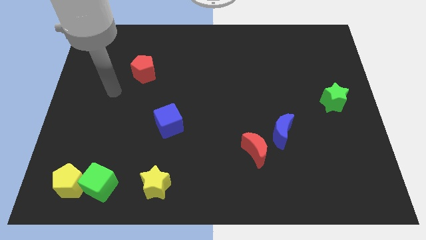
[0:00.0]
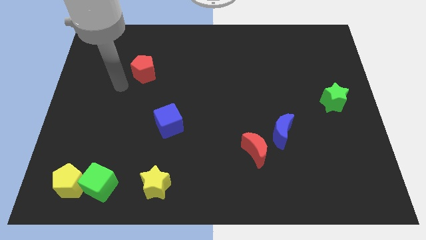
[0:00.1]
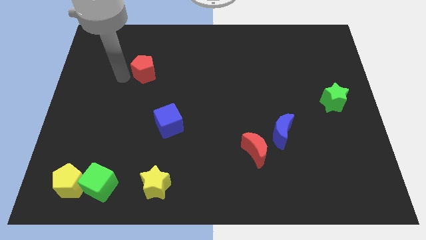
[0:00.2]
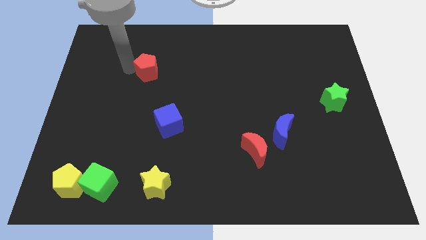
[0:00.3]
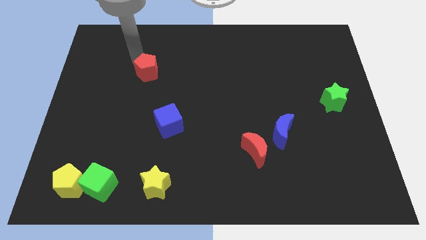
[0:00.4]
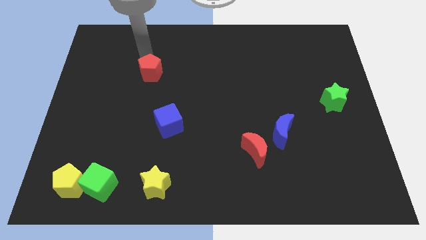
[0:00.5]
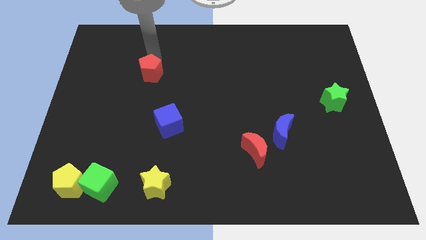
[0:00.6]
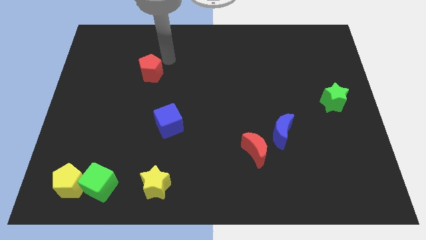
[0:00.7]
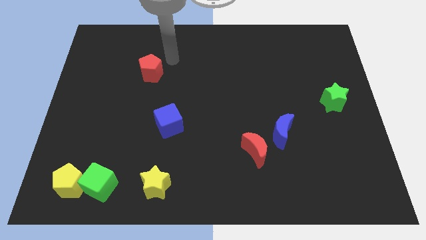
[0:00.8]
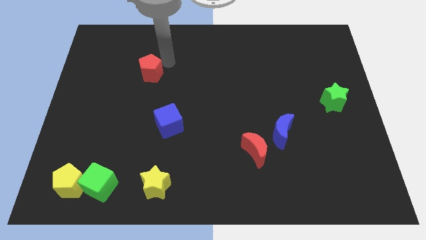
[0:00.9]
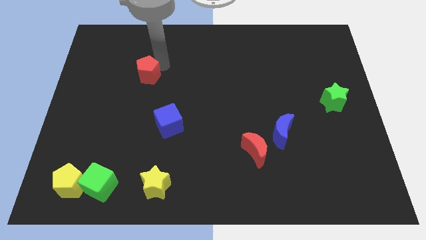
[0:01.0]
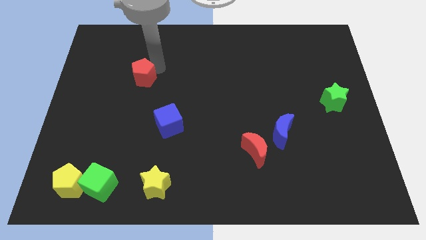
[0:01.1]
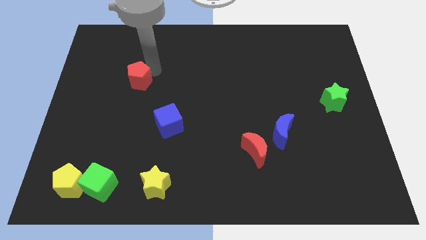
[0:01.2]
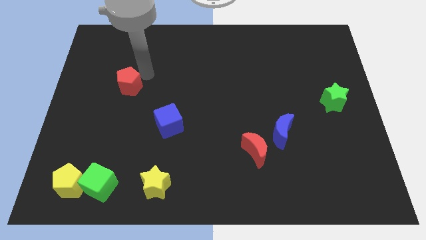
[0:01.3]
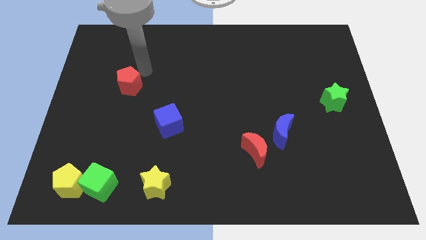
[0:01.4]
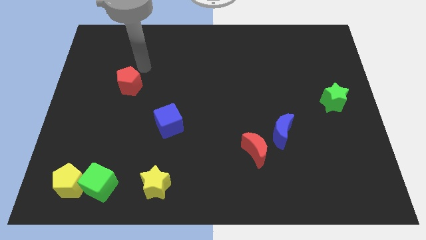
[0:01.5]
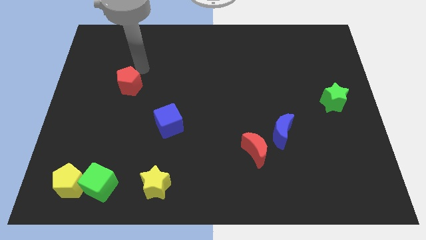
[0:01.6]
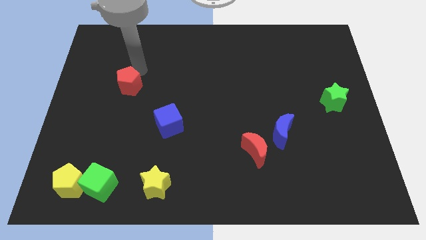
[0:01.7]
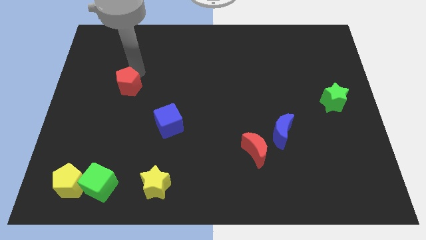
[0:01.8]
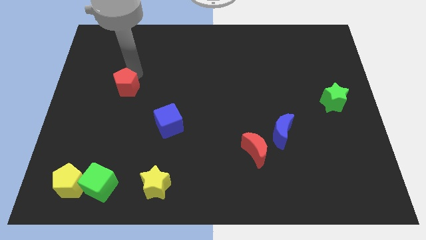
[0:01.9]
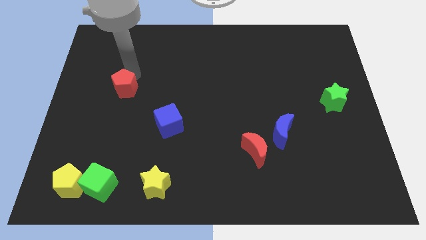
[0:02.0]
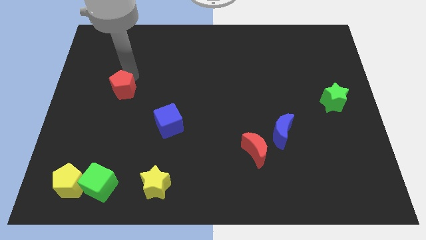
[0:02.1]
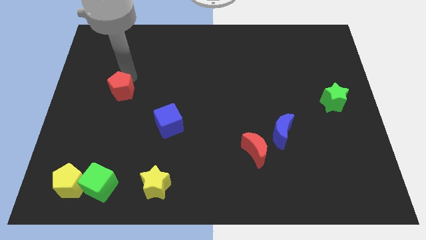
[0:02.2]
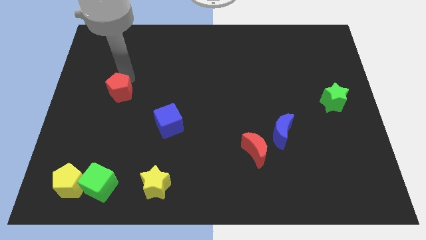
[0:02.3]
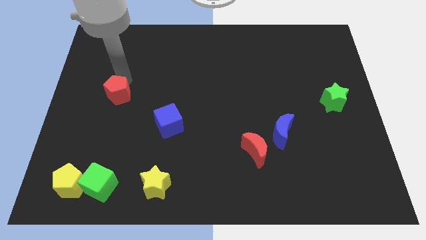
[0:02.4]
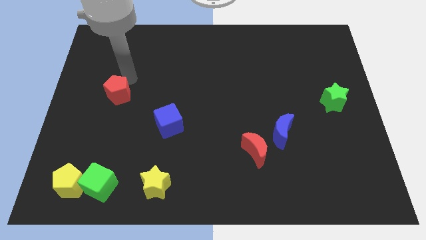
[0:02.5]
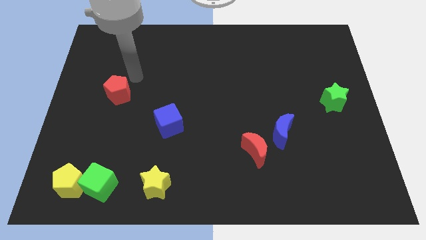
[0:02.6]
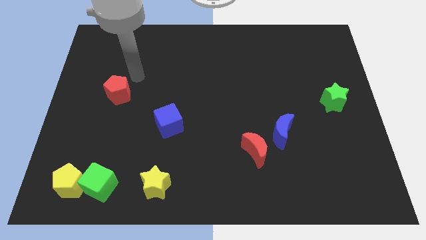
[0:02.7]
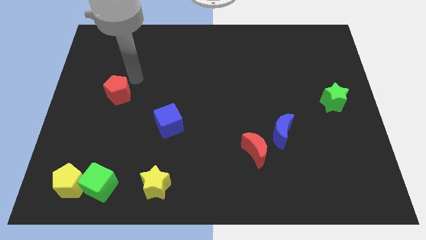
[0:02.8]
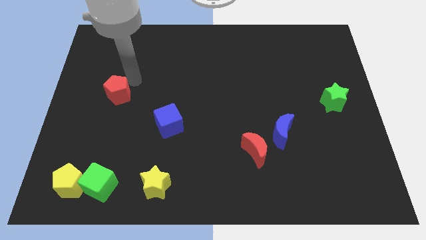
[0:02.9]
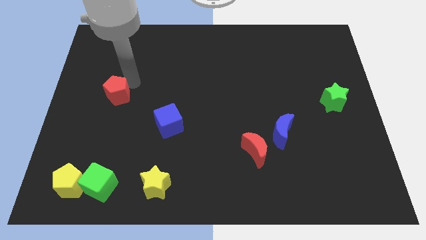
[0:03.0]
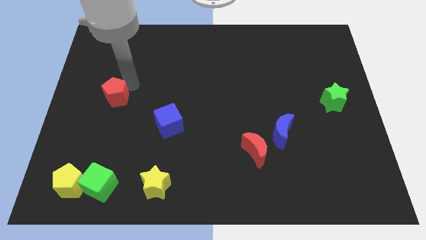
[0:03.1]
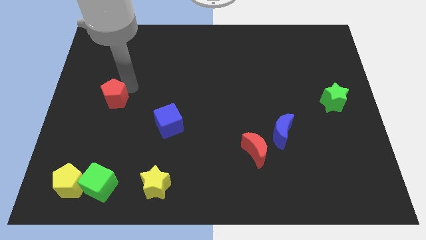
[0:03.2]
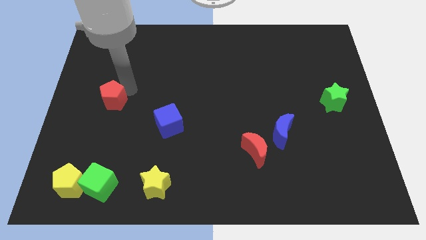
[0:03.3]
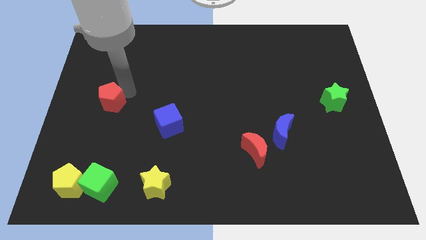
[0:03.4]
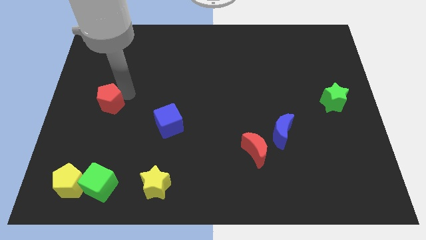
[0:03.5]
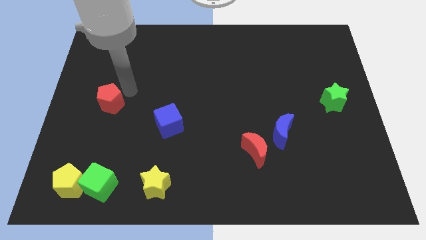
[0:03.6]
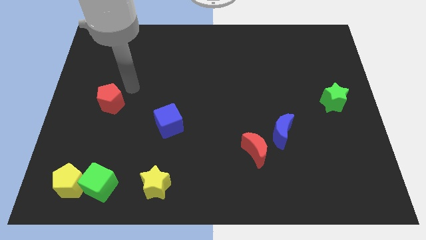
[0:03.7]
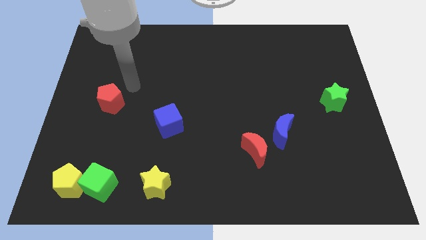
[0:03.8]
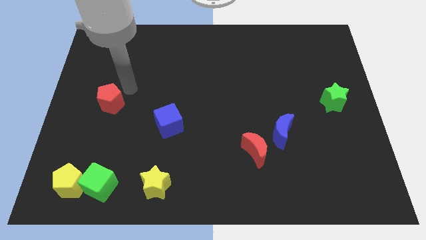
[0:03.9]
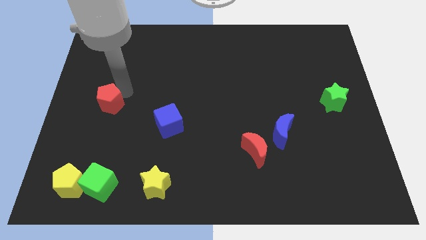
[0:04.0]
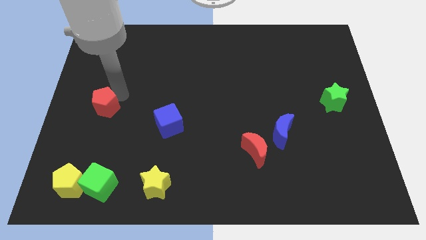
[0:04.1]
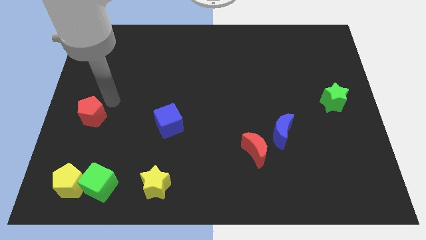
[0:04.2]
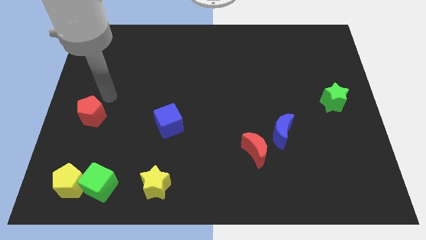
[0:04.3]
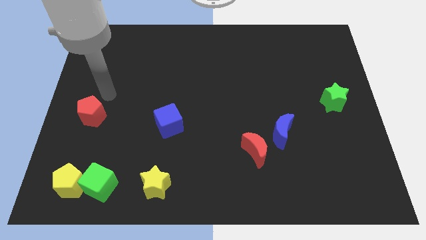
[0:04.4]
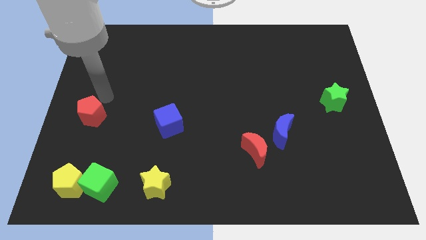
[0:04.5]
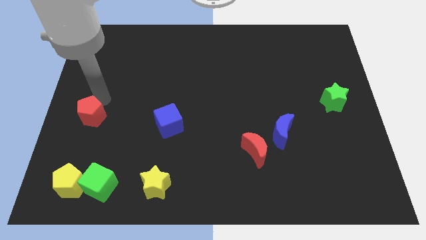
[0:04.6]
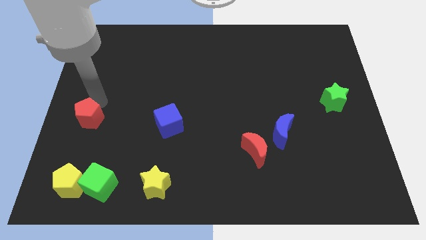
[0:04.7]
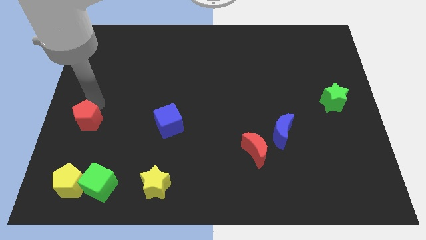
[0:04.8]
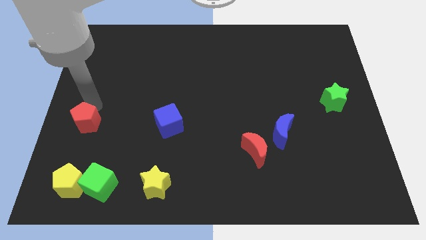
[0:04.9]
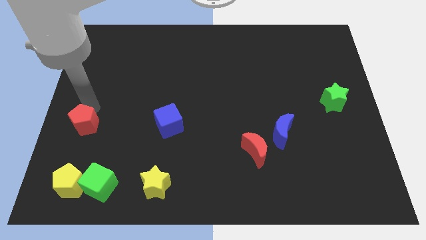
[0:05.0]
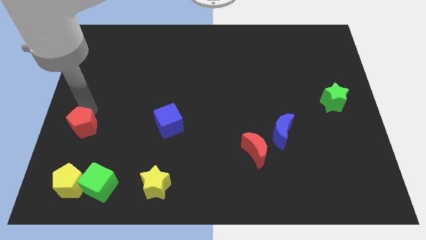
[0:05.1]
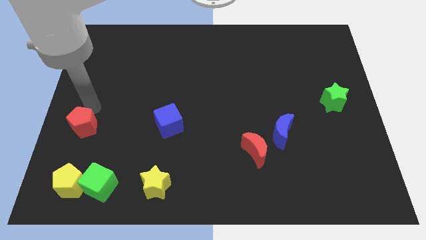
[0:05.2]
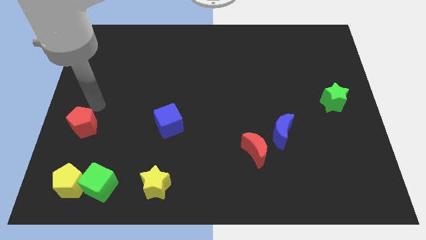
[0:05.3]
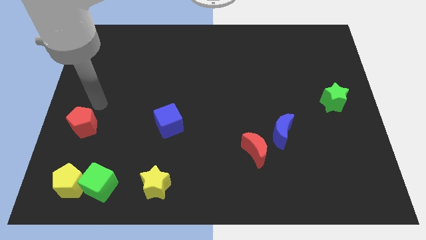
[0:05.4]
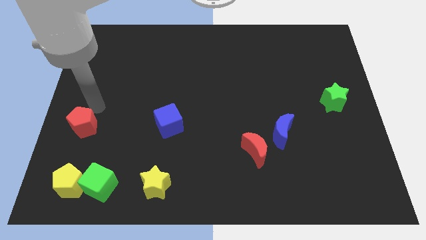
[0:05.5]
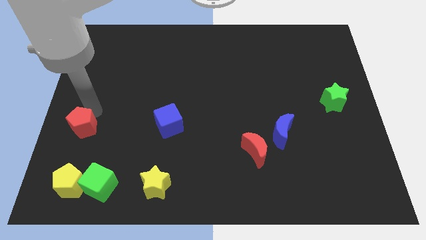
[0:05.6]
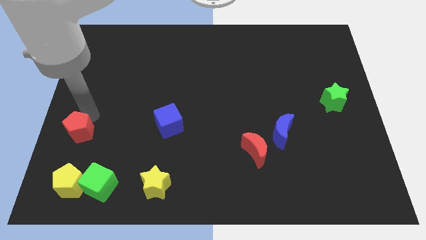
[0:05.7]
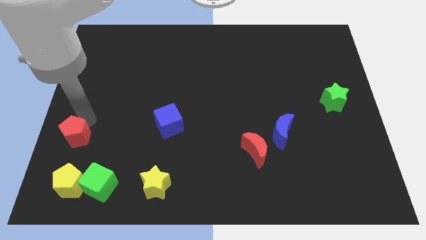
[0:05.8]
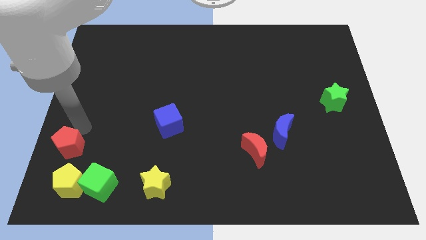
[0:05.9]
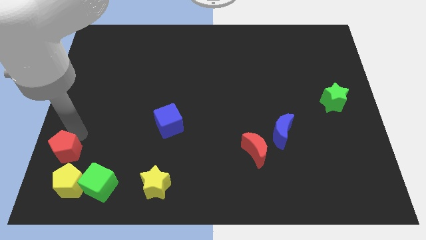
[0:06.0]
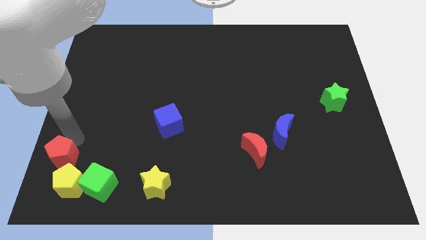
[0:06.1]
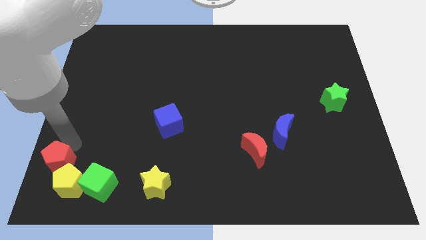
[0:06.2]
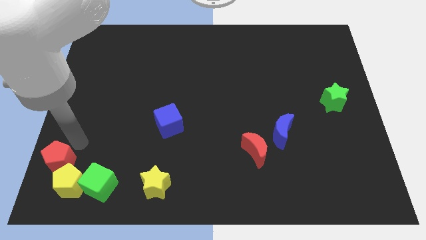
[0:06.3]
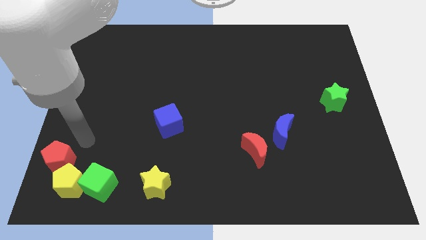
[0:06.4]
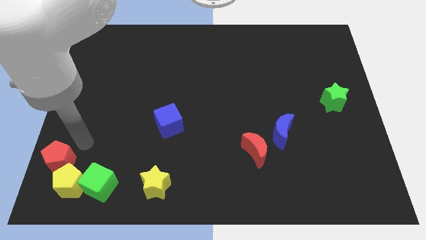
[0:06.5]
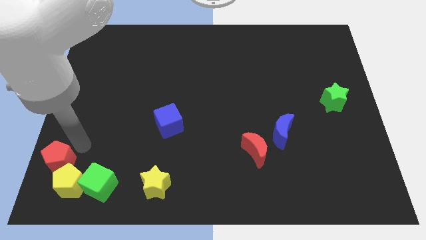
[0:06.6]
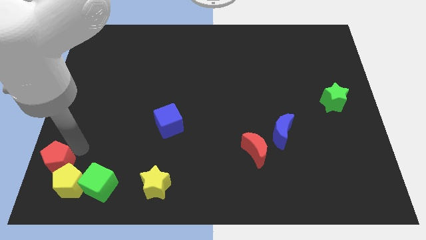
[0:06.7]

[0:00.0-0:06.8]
slide the red pentagon to the lower left corner
